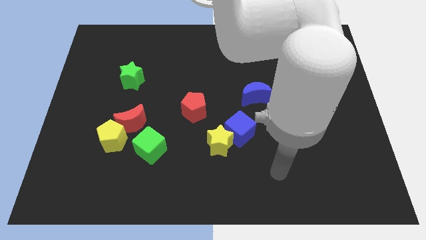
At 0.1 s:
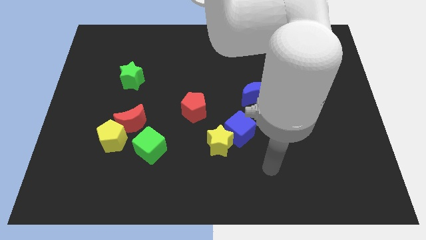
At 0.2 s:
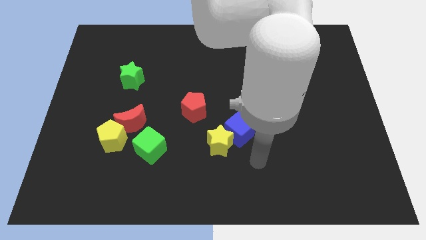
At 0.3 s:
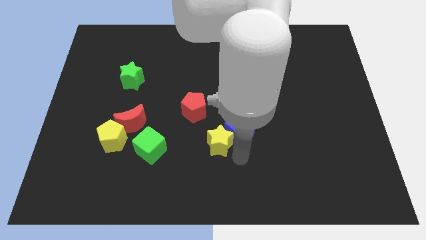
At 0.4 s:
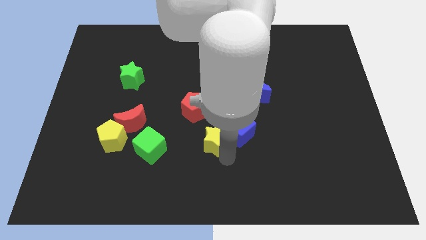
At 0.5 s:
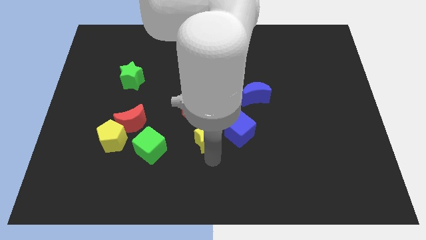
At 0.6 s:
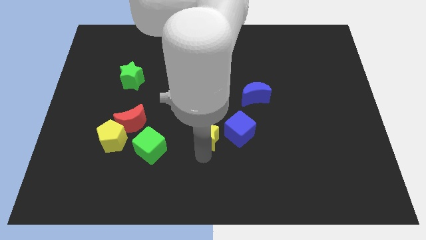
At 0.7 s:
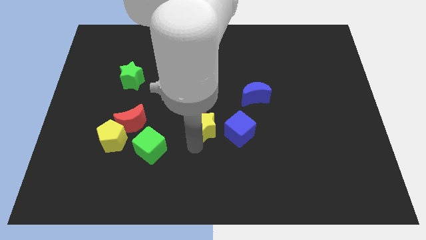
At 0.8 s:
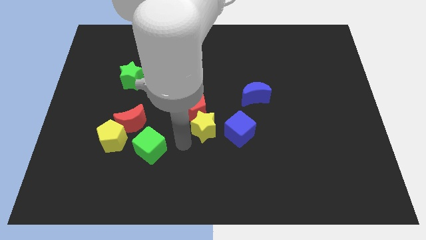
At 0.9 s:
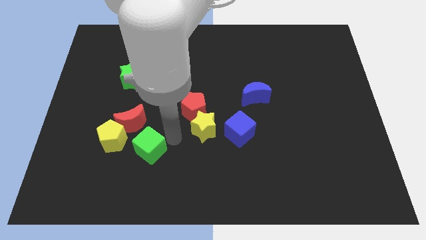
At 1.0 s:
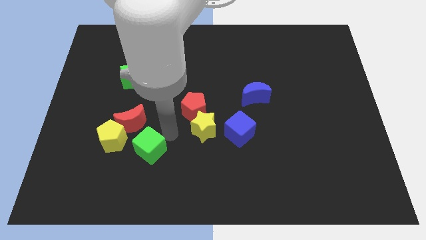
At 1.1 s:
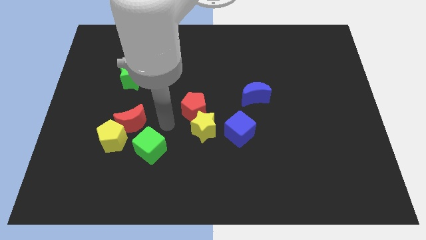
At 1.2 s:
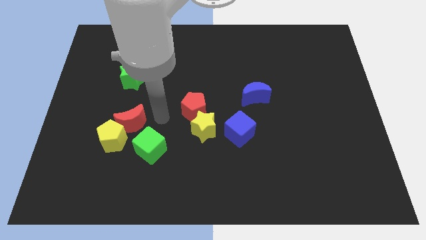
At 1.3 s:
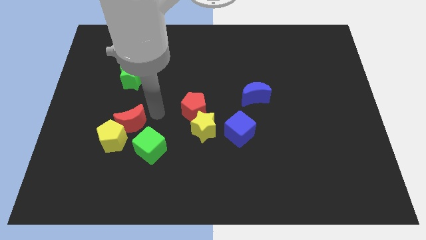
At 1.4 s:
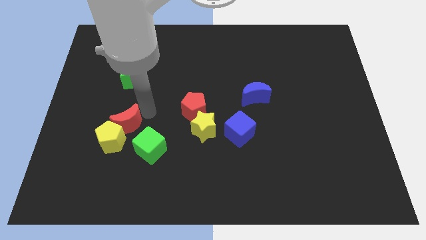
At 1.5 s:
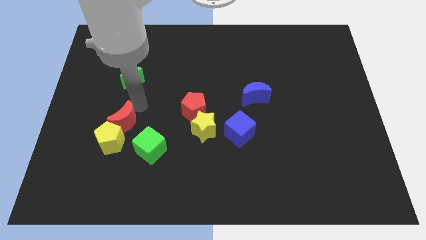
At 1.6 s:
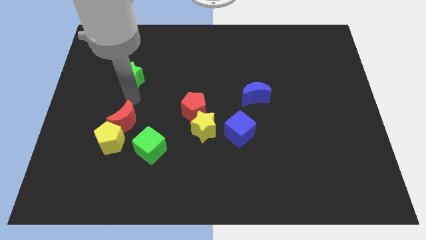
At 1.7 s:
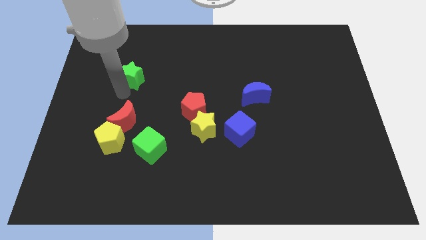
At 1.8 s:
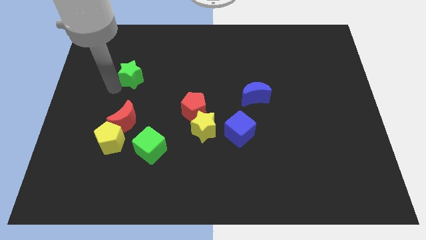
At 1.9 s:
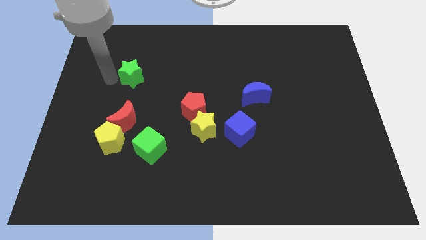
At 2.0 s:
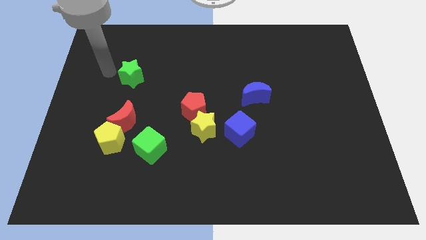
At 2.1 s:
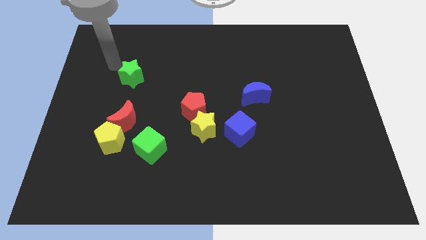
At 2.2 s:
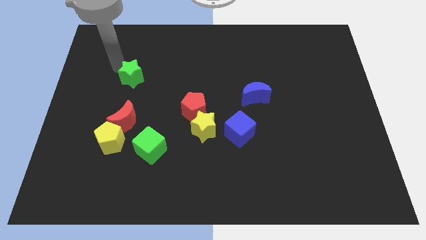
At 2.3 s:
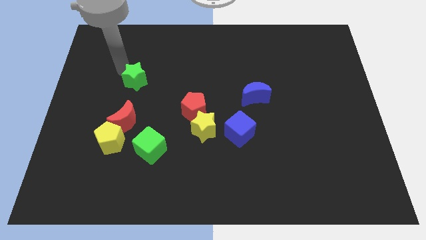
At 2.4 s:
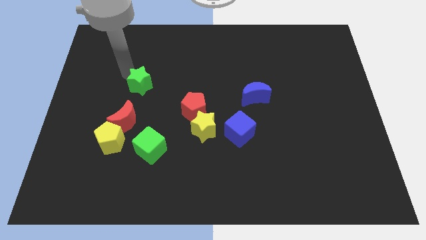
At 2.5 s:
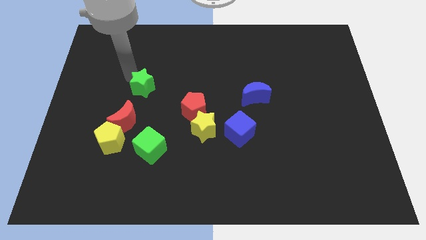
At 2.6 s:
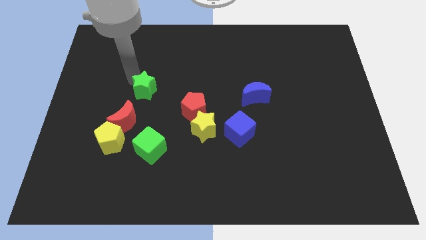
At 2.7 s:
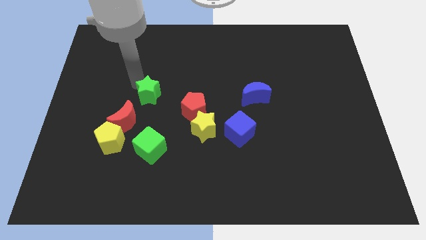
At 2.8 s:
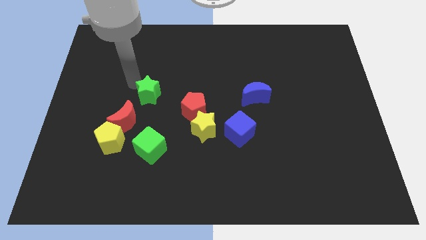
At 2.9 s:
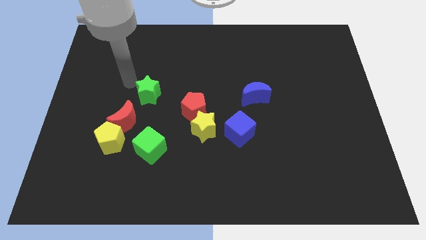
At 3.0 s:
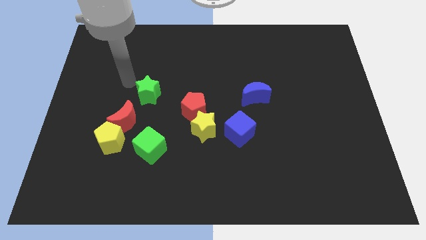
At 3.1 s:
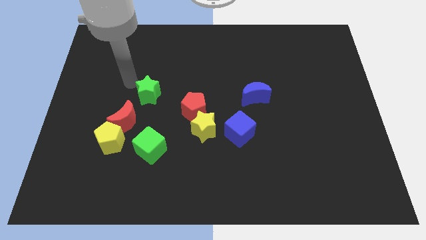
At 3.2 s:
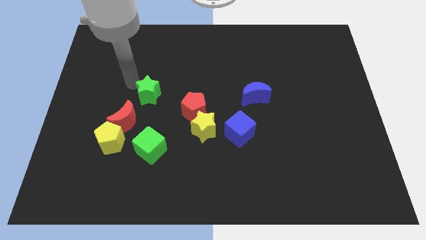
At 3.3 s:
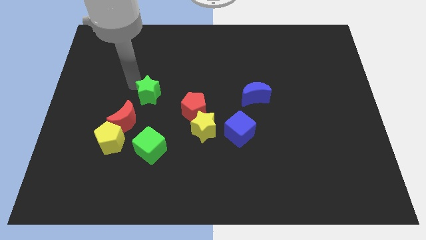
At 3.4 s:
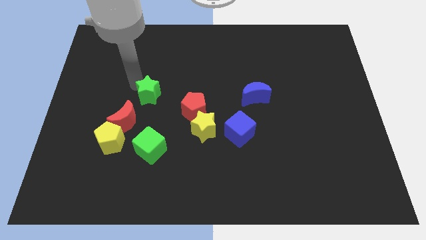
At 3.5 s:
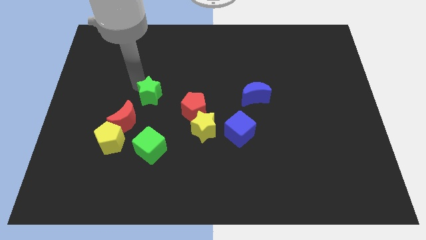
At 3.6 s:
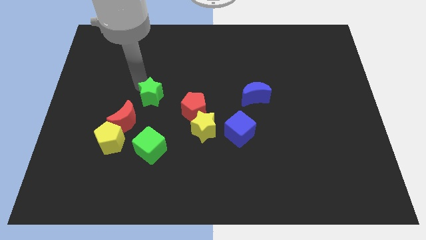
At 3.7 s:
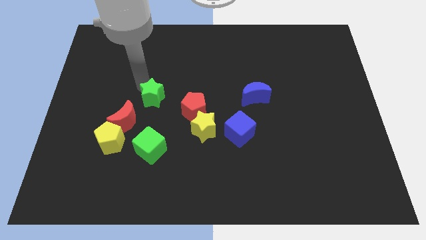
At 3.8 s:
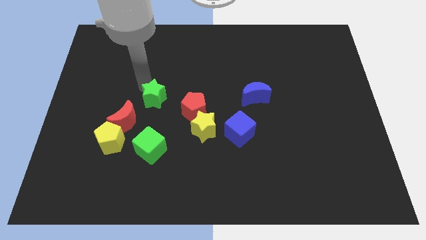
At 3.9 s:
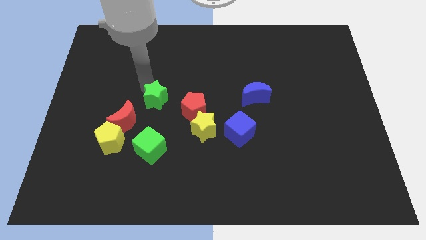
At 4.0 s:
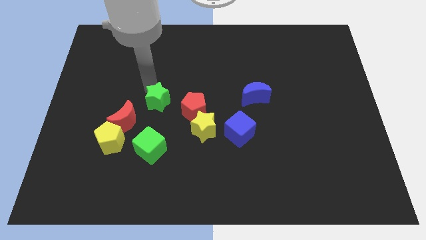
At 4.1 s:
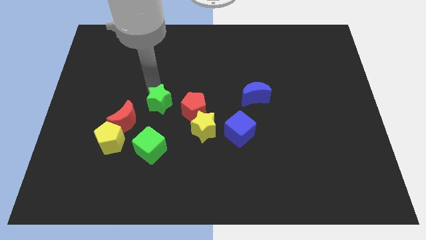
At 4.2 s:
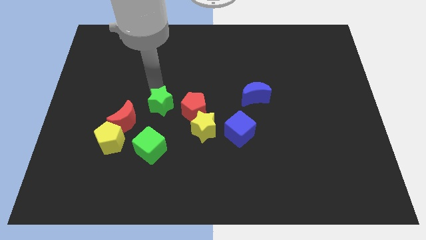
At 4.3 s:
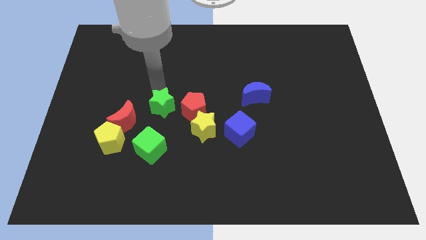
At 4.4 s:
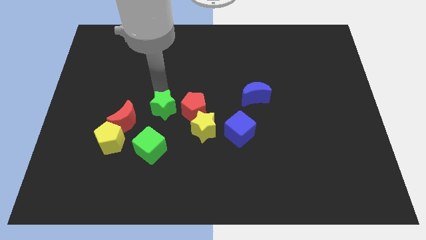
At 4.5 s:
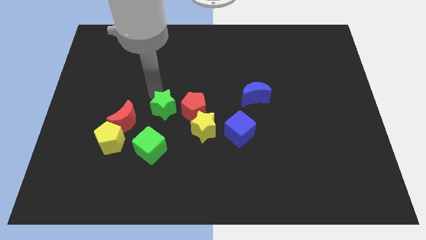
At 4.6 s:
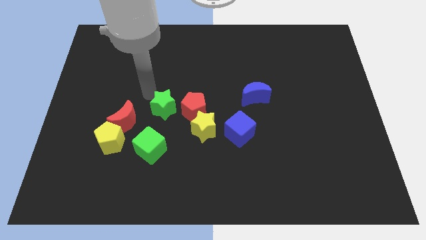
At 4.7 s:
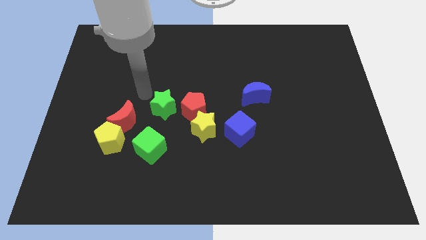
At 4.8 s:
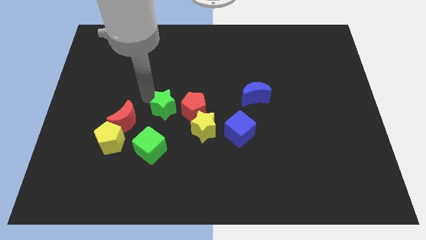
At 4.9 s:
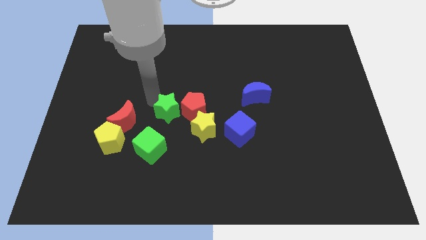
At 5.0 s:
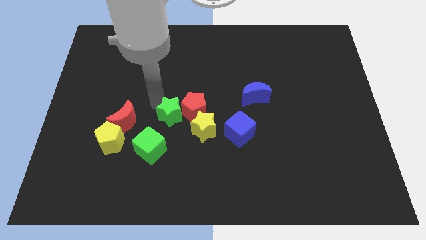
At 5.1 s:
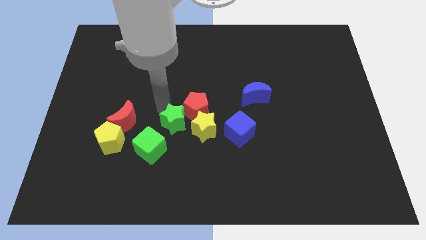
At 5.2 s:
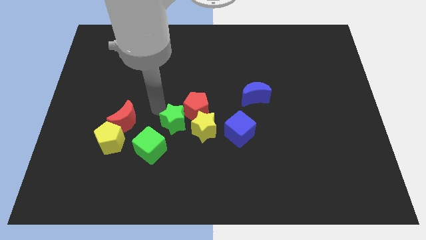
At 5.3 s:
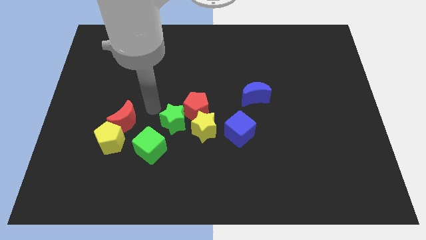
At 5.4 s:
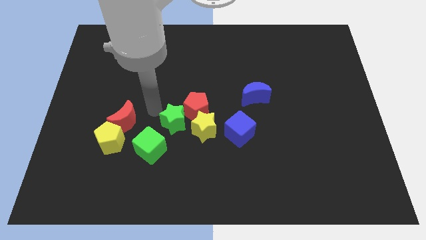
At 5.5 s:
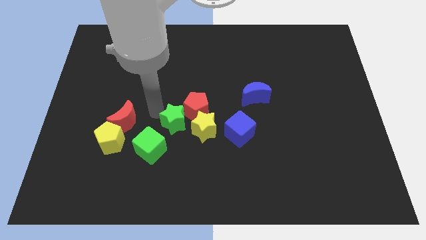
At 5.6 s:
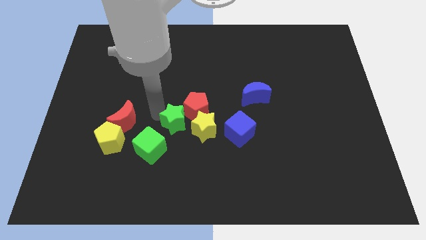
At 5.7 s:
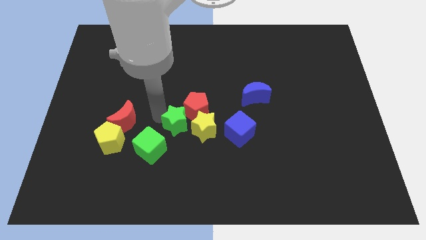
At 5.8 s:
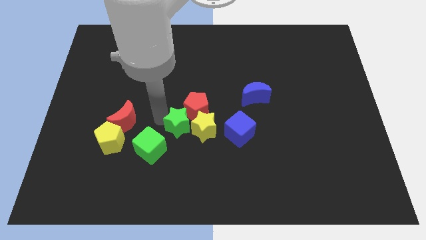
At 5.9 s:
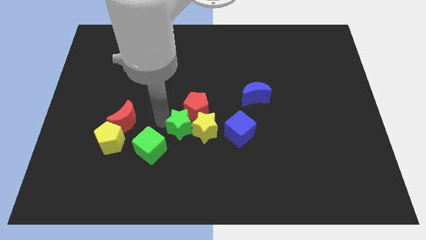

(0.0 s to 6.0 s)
slide the green star to the yellow star

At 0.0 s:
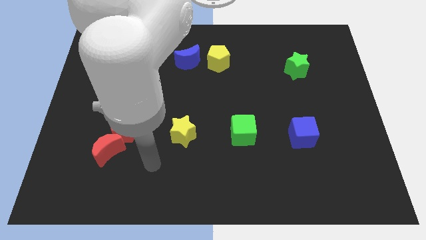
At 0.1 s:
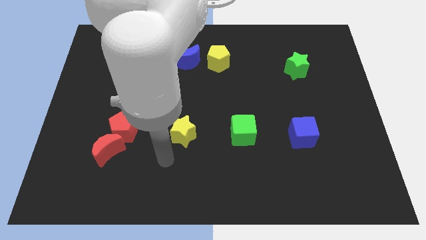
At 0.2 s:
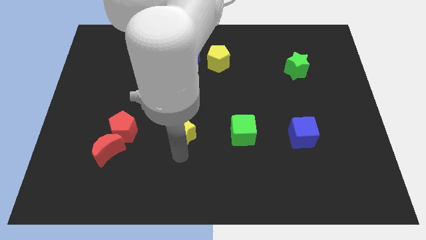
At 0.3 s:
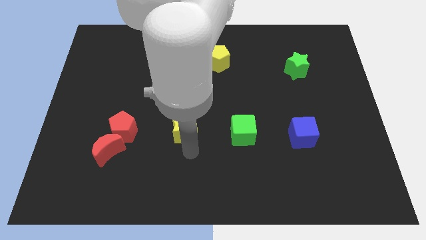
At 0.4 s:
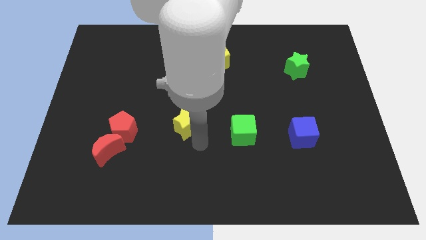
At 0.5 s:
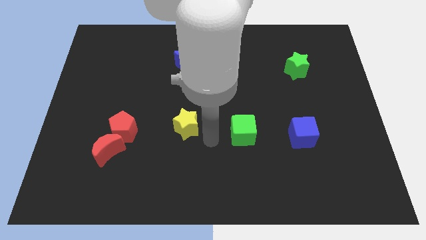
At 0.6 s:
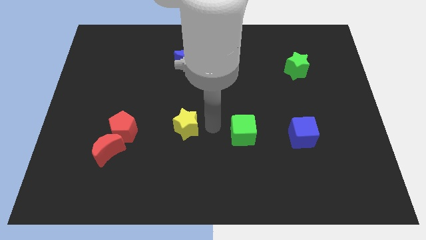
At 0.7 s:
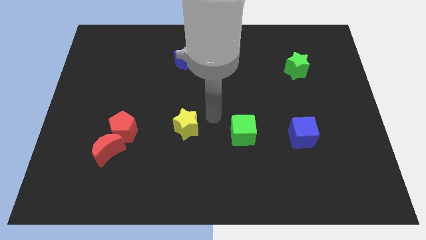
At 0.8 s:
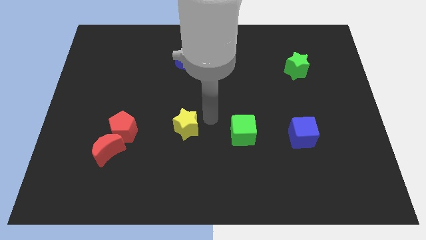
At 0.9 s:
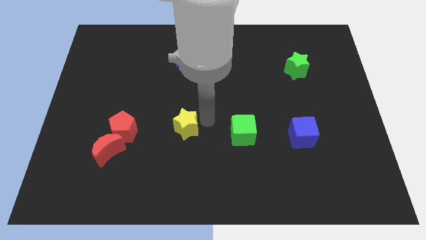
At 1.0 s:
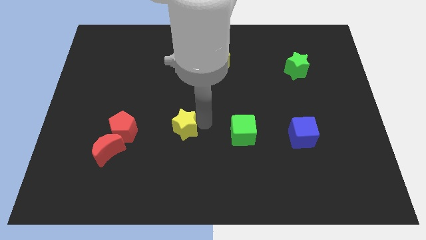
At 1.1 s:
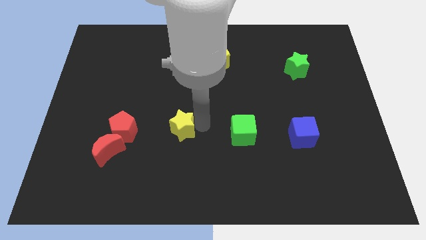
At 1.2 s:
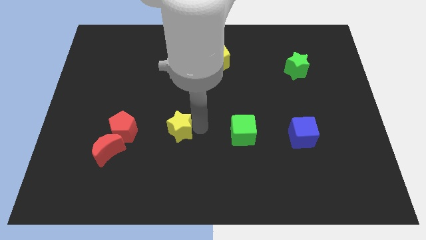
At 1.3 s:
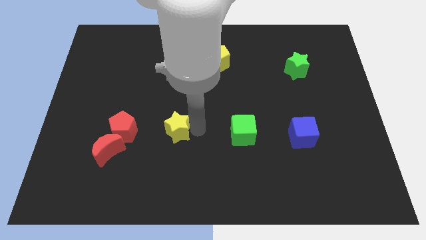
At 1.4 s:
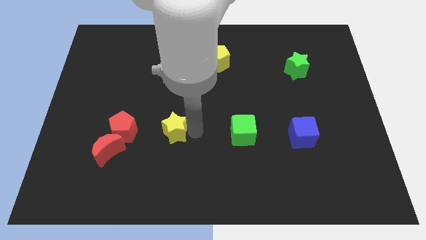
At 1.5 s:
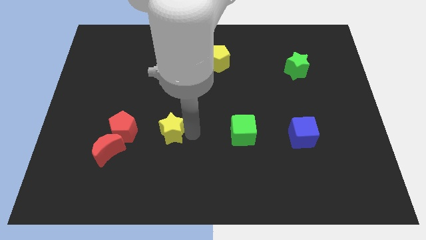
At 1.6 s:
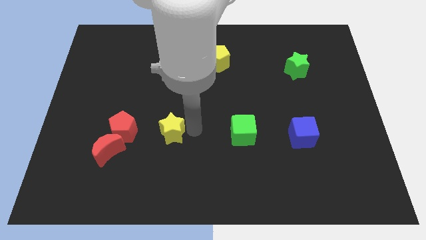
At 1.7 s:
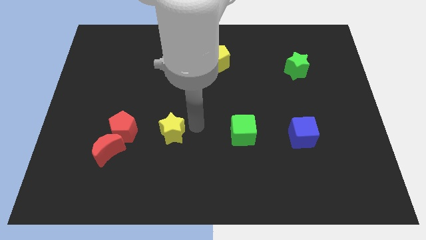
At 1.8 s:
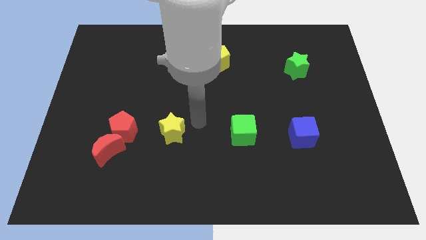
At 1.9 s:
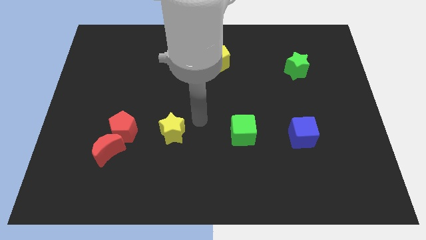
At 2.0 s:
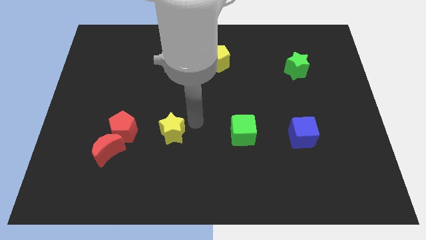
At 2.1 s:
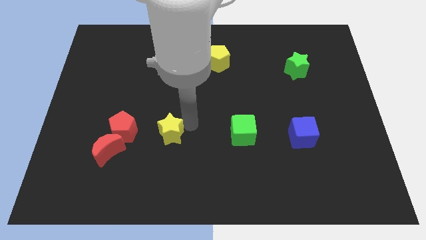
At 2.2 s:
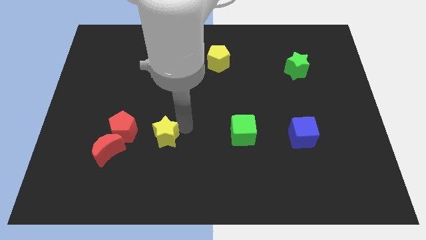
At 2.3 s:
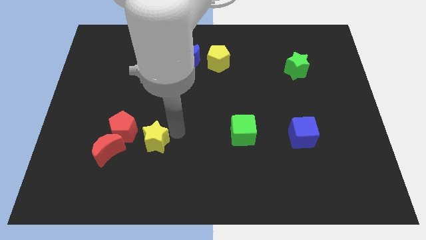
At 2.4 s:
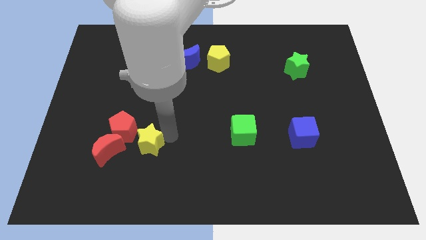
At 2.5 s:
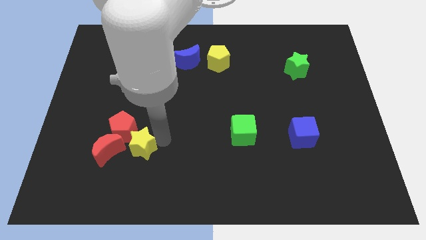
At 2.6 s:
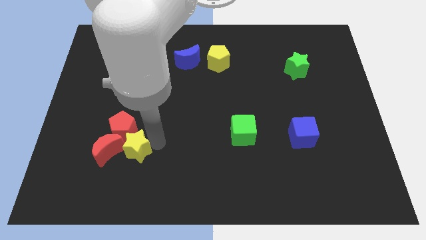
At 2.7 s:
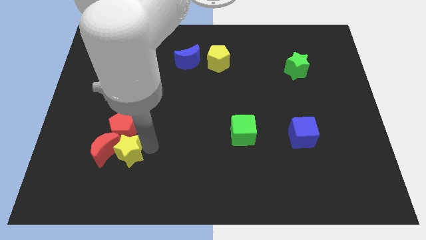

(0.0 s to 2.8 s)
move the yellow star towards the red moon
